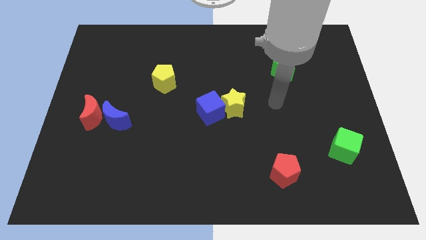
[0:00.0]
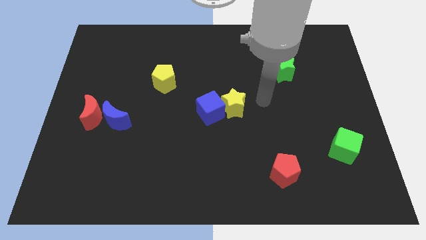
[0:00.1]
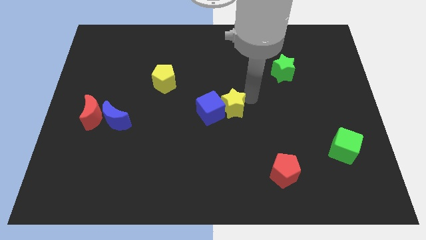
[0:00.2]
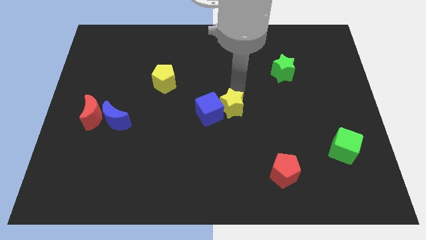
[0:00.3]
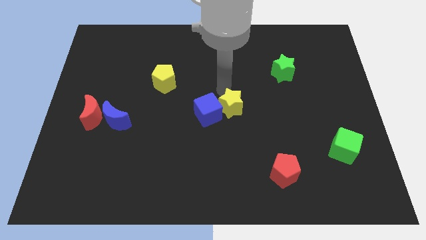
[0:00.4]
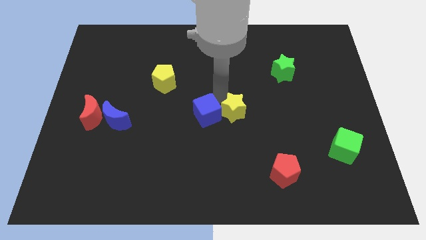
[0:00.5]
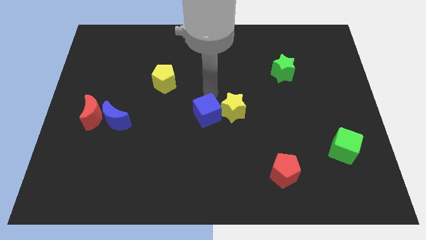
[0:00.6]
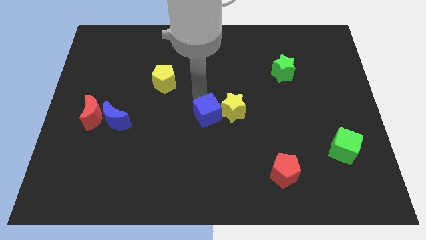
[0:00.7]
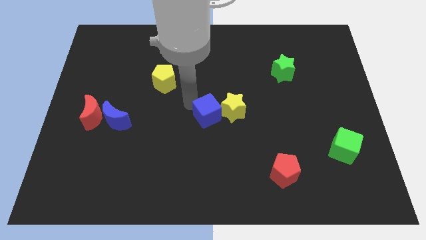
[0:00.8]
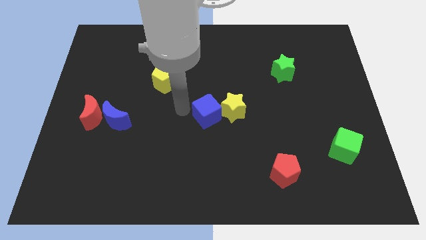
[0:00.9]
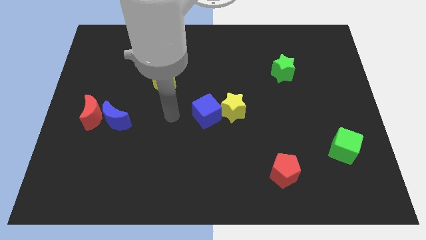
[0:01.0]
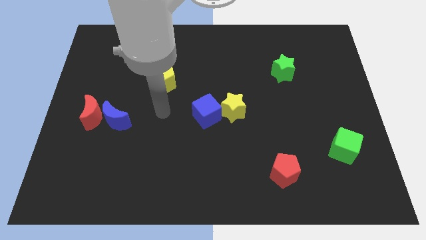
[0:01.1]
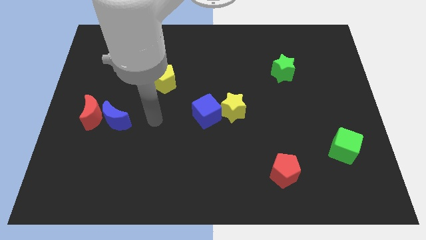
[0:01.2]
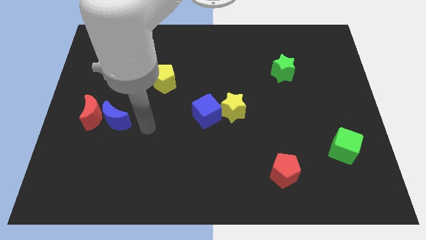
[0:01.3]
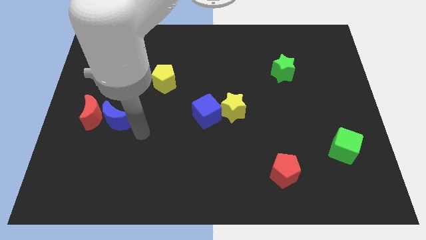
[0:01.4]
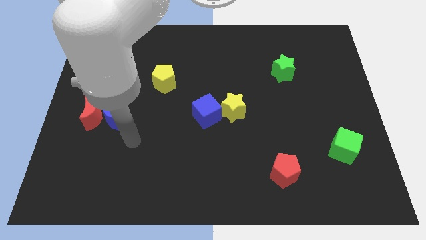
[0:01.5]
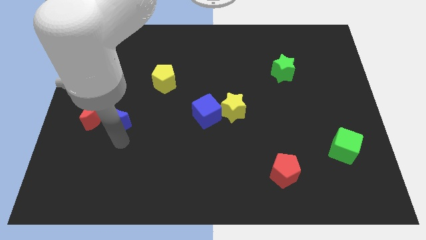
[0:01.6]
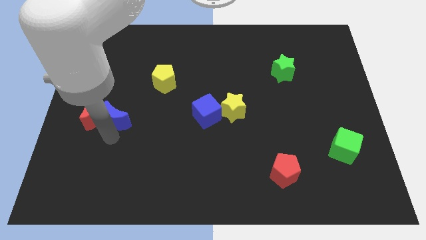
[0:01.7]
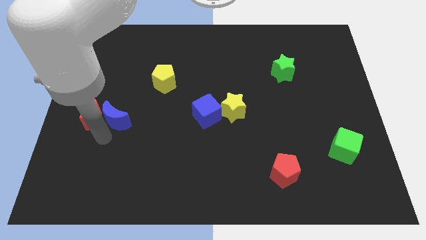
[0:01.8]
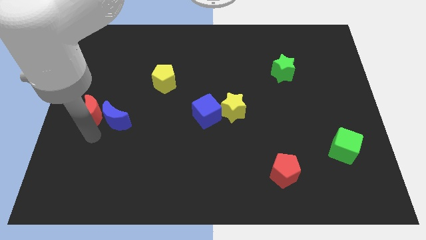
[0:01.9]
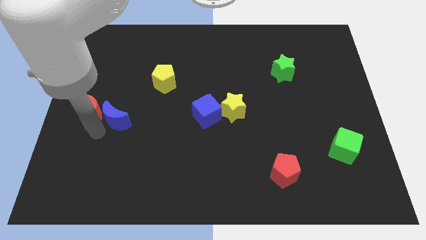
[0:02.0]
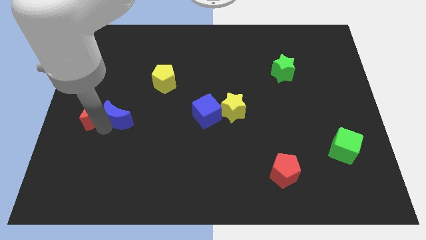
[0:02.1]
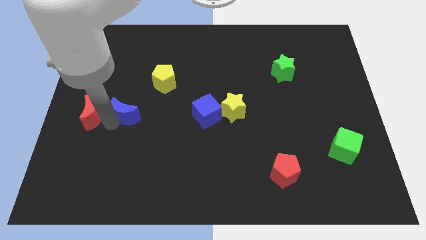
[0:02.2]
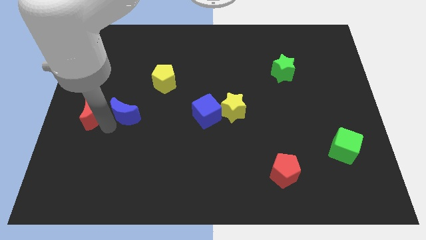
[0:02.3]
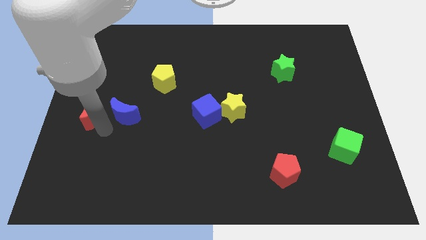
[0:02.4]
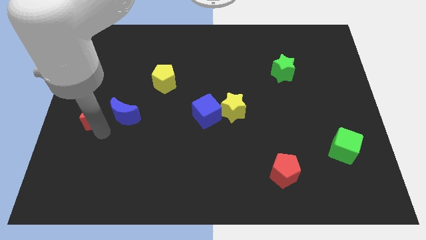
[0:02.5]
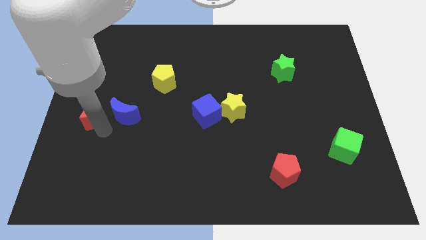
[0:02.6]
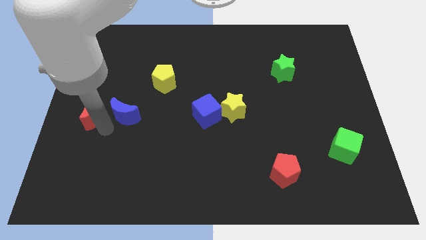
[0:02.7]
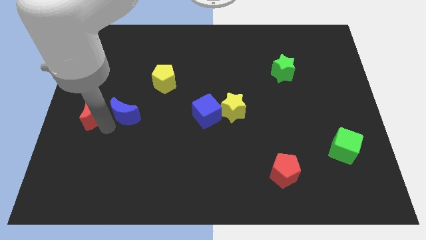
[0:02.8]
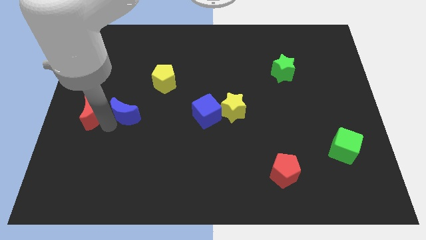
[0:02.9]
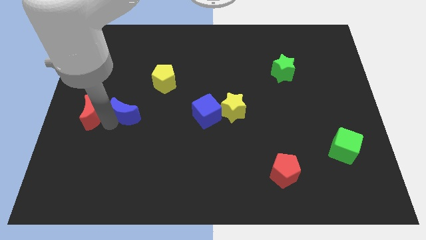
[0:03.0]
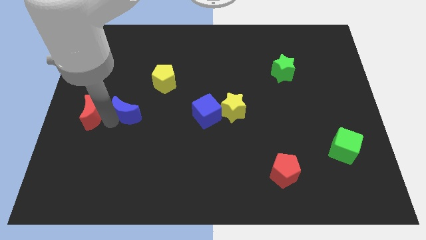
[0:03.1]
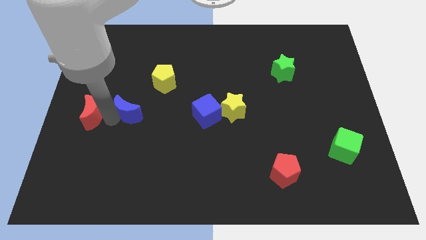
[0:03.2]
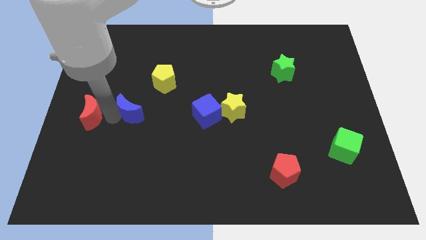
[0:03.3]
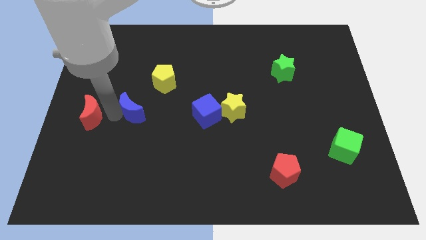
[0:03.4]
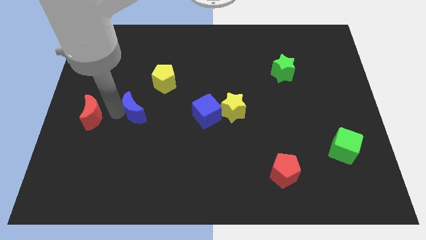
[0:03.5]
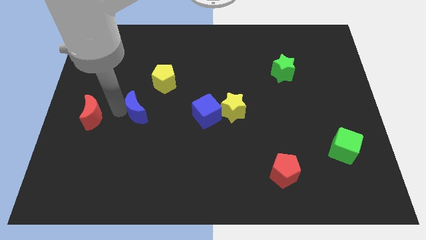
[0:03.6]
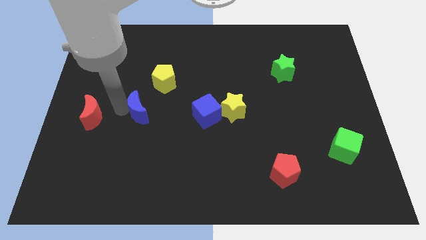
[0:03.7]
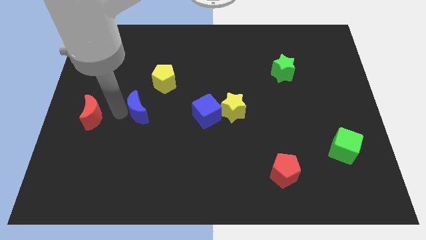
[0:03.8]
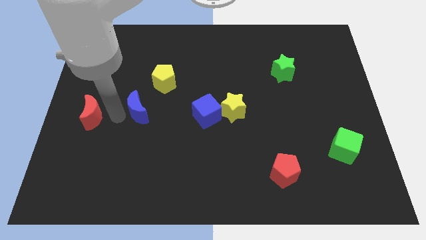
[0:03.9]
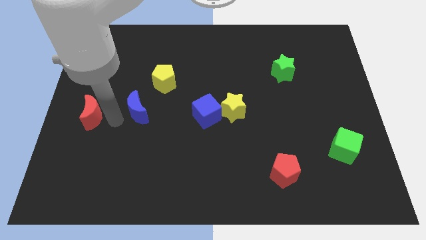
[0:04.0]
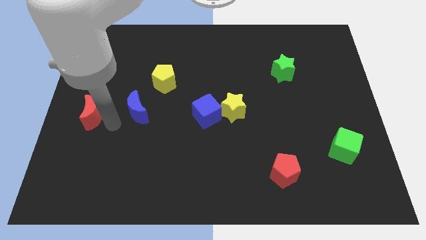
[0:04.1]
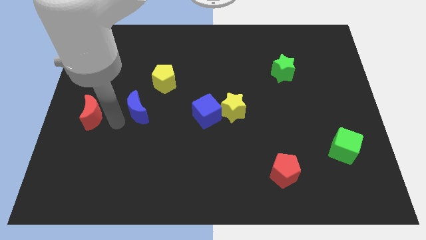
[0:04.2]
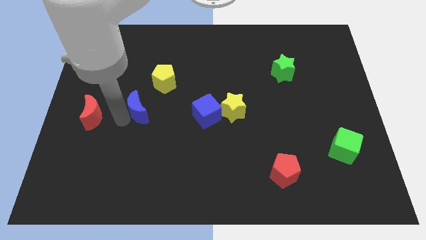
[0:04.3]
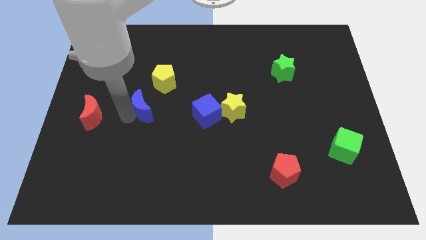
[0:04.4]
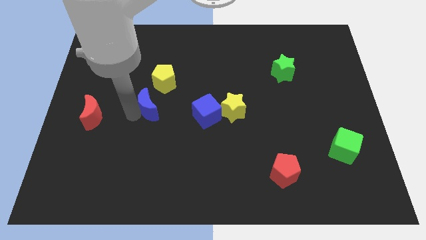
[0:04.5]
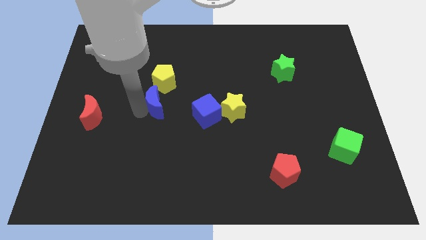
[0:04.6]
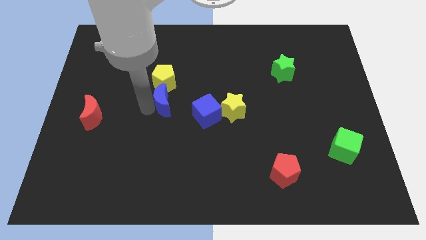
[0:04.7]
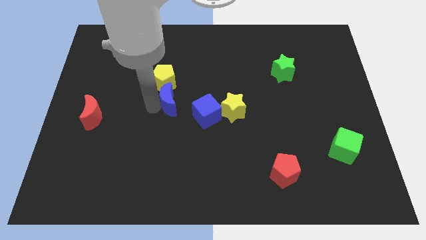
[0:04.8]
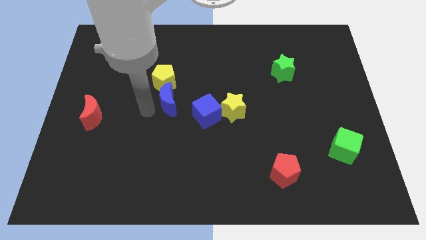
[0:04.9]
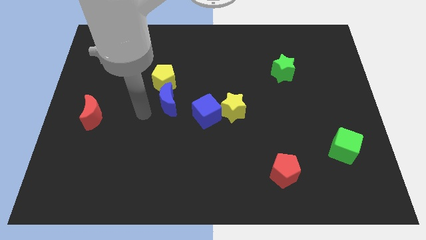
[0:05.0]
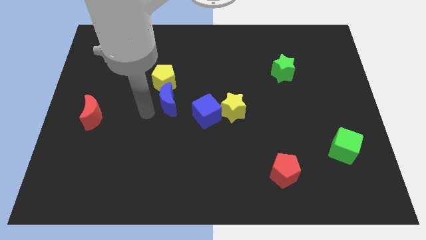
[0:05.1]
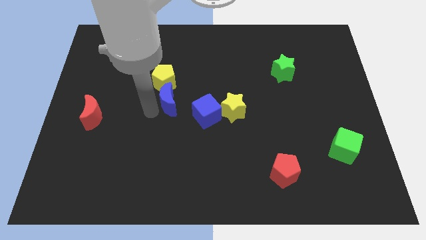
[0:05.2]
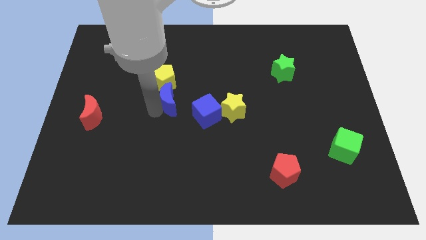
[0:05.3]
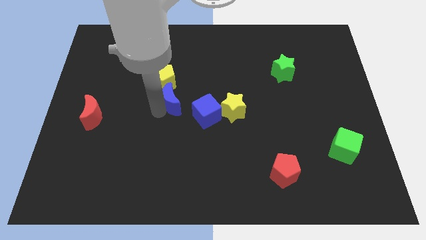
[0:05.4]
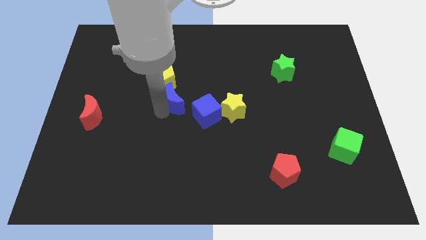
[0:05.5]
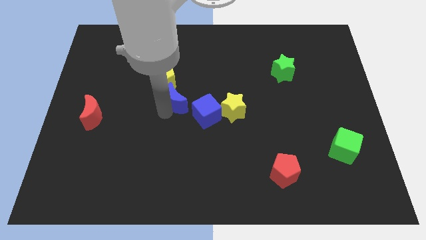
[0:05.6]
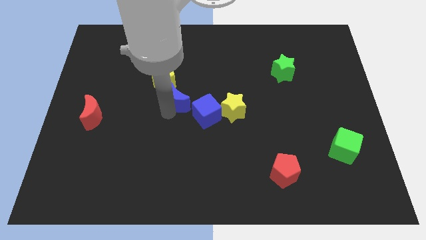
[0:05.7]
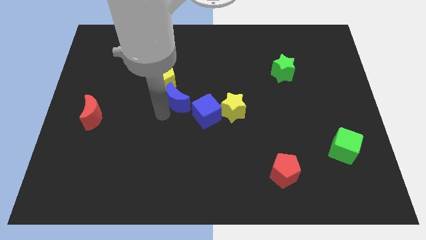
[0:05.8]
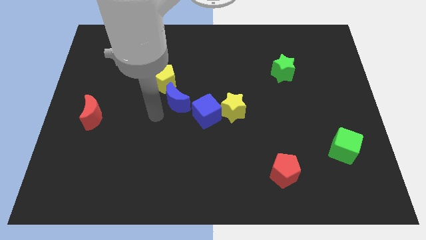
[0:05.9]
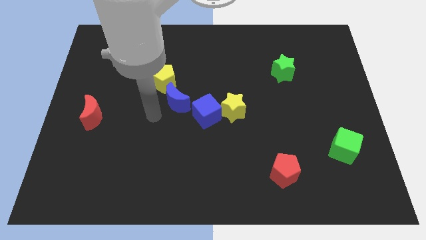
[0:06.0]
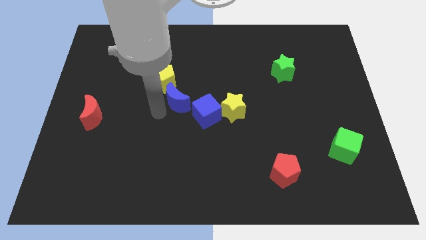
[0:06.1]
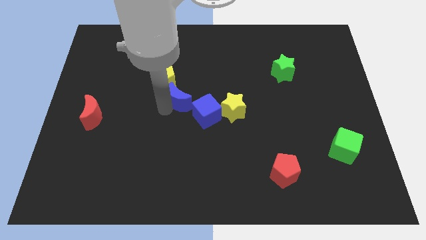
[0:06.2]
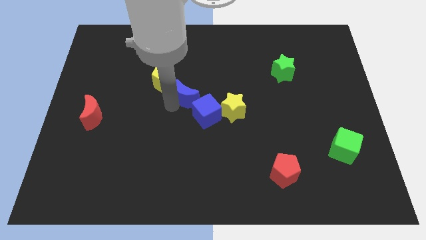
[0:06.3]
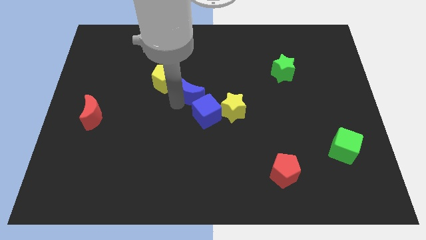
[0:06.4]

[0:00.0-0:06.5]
move the blue moon to the right side of the yellow pentagon

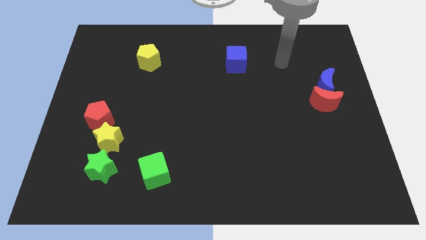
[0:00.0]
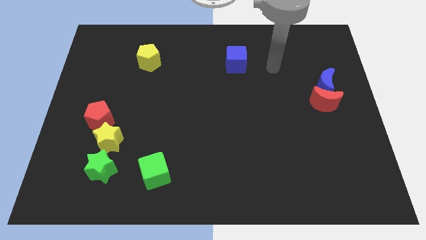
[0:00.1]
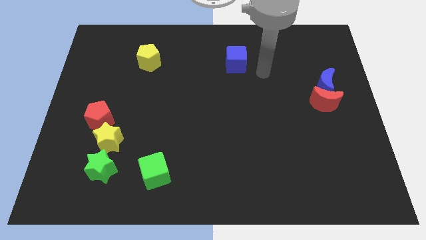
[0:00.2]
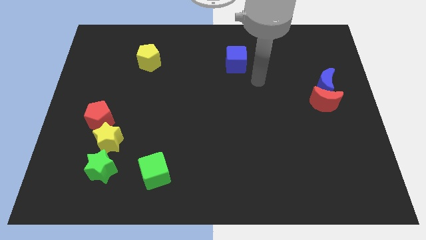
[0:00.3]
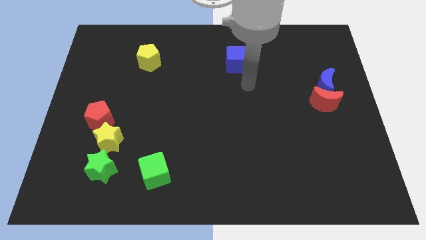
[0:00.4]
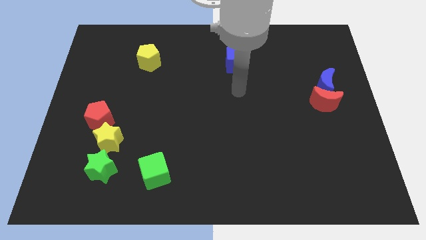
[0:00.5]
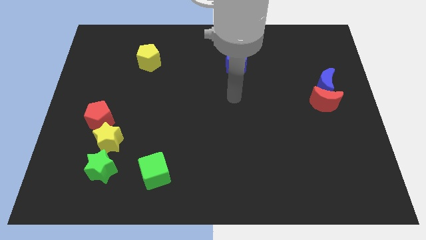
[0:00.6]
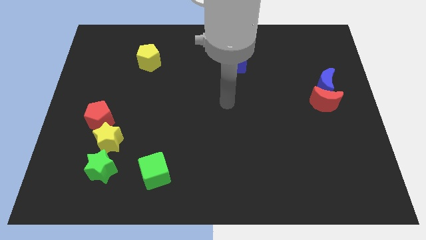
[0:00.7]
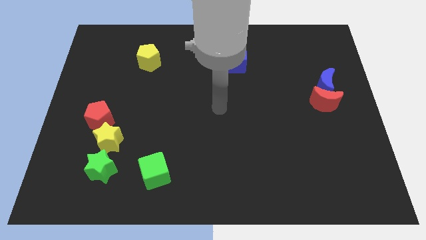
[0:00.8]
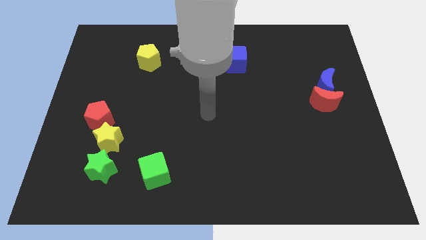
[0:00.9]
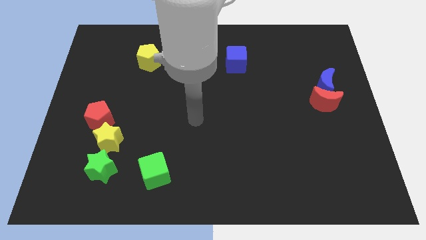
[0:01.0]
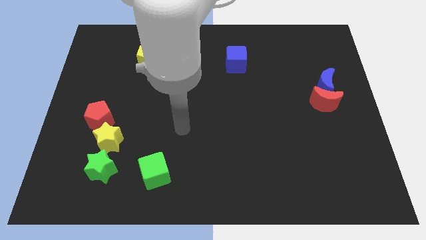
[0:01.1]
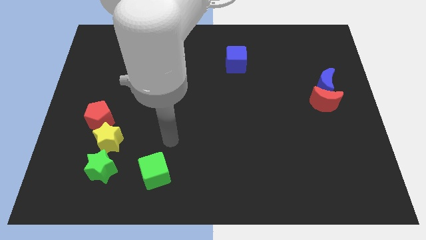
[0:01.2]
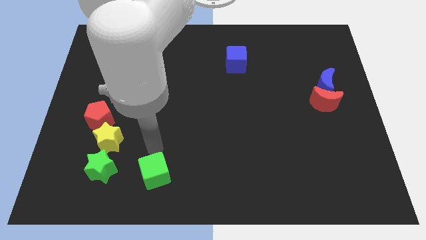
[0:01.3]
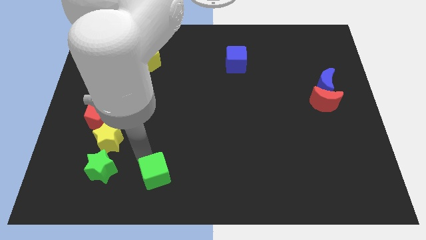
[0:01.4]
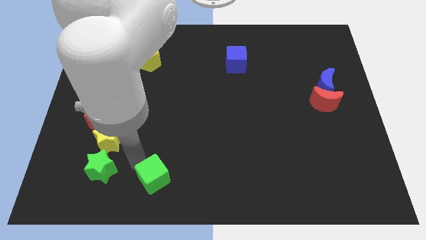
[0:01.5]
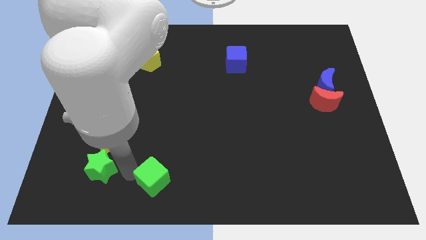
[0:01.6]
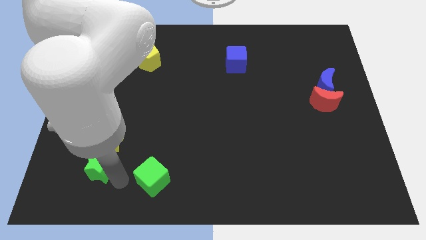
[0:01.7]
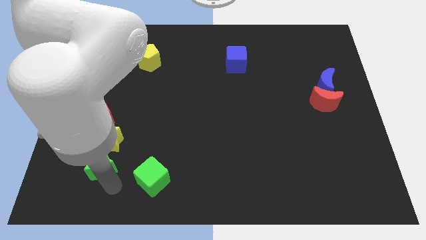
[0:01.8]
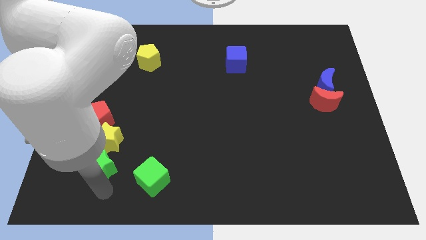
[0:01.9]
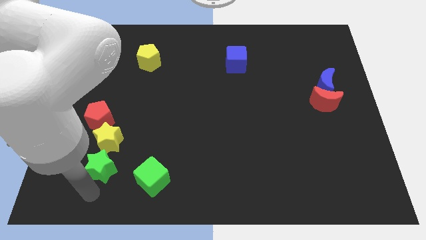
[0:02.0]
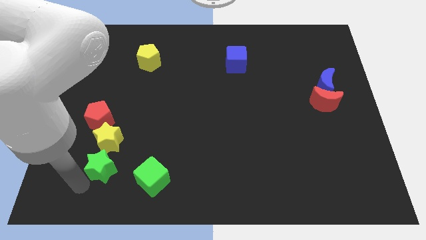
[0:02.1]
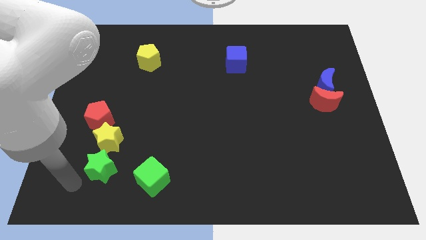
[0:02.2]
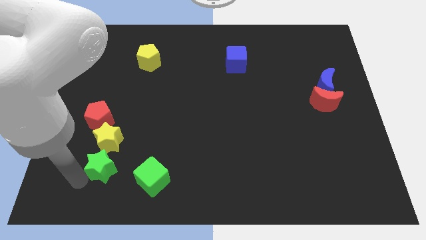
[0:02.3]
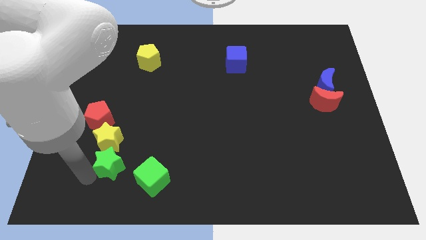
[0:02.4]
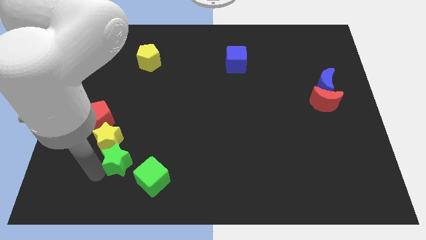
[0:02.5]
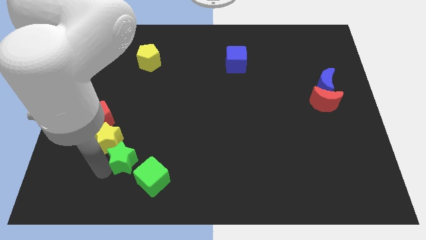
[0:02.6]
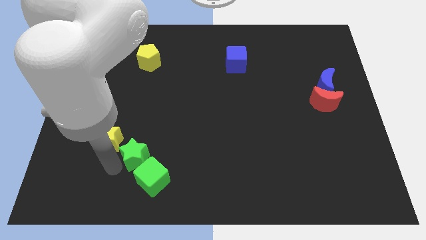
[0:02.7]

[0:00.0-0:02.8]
slide the green star to the top side of the green cube
